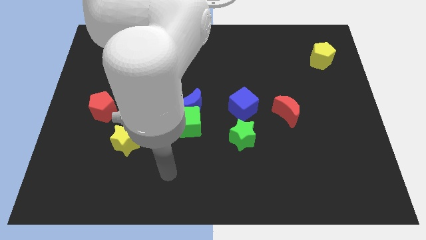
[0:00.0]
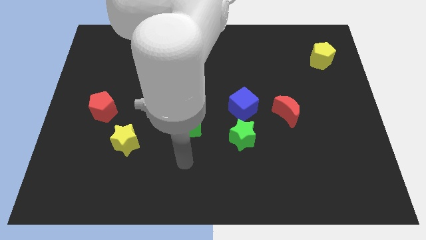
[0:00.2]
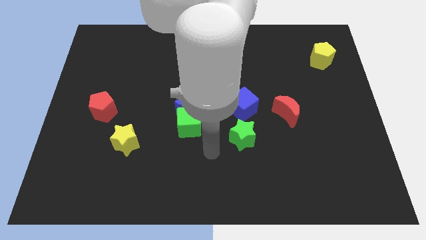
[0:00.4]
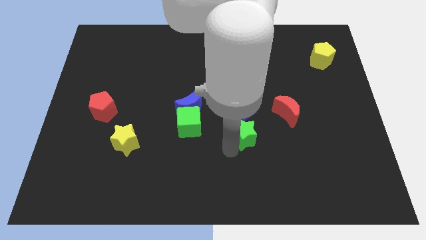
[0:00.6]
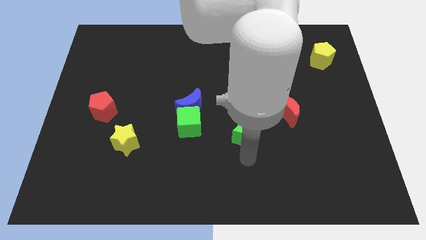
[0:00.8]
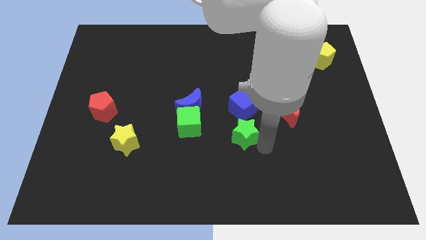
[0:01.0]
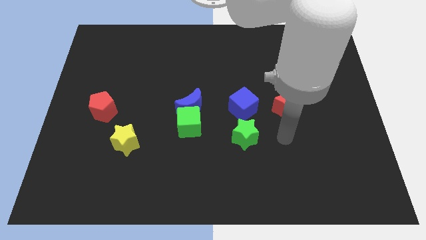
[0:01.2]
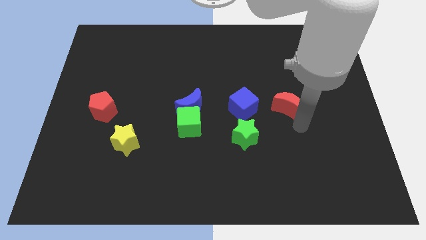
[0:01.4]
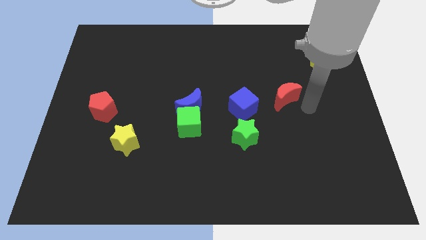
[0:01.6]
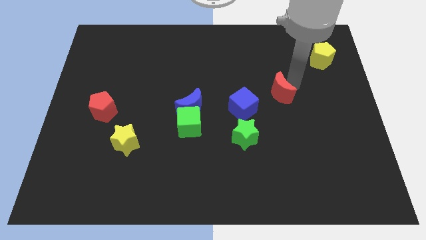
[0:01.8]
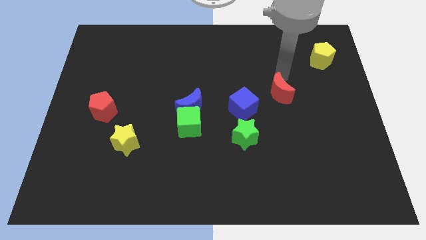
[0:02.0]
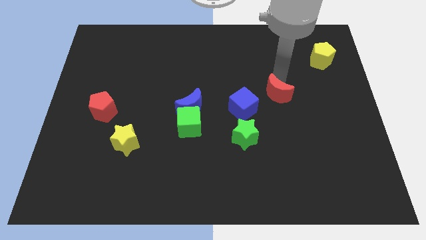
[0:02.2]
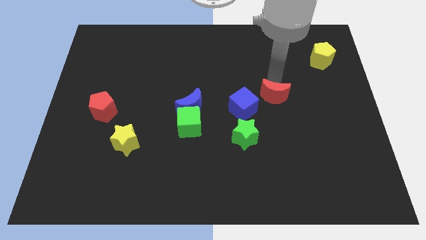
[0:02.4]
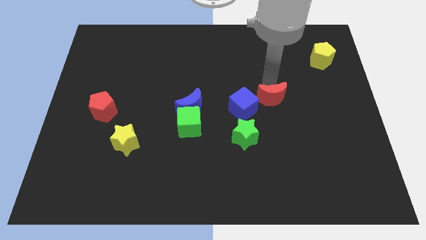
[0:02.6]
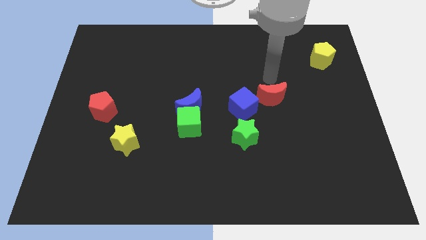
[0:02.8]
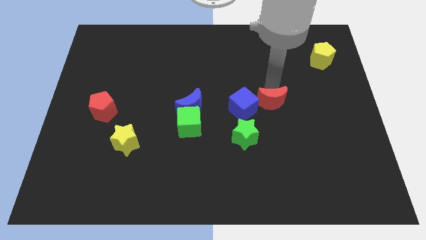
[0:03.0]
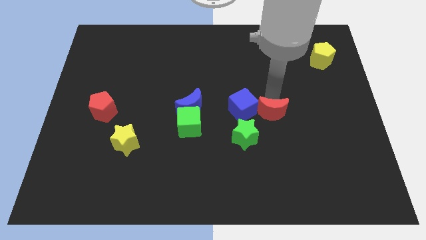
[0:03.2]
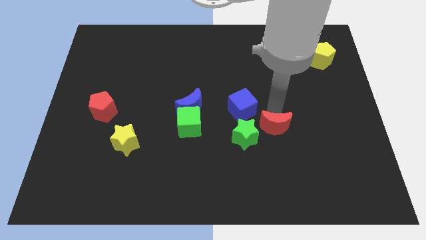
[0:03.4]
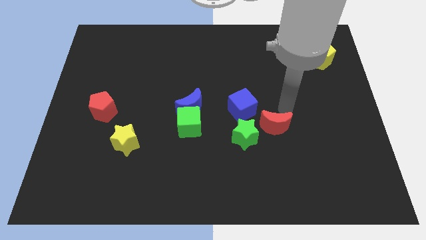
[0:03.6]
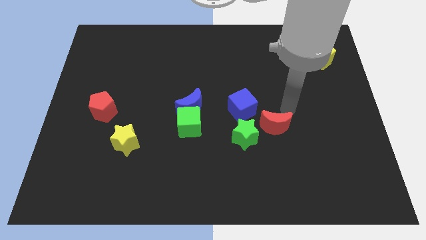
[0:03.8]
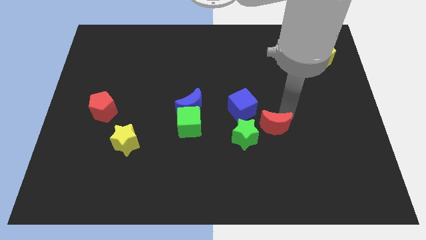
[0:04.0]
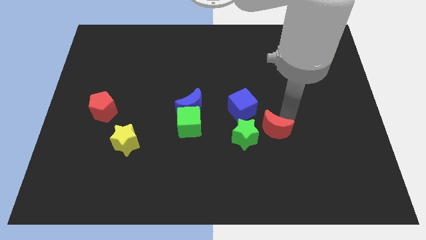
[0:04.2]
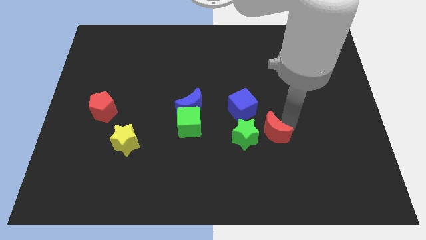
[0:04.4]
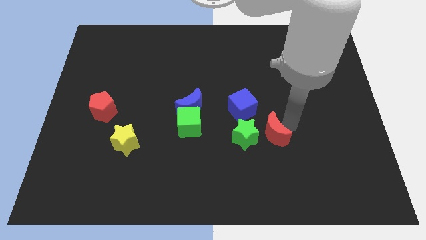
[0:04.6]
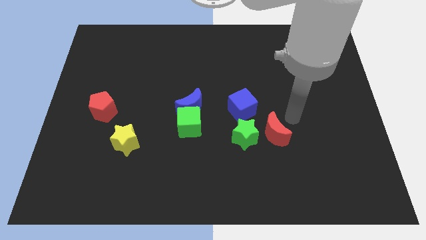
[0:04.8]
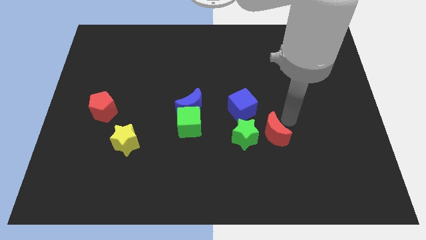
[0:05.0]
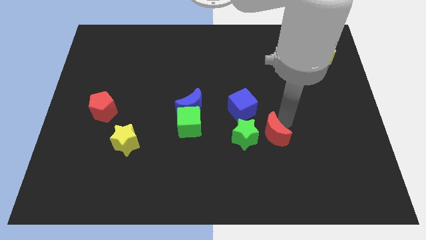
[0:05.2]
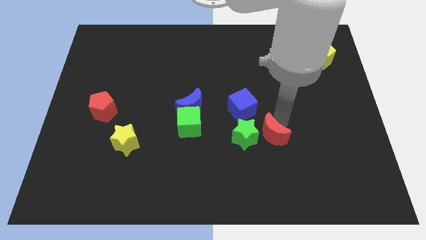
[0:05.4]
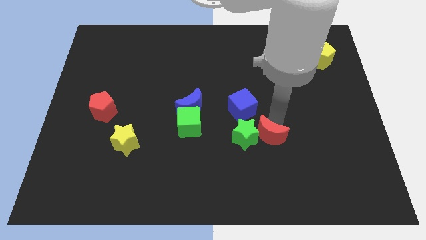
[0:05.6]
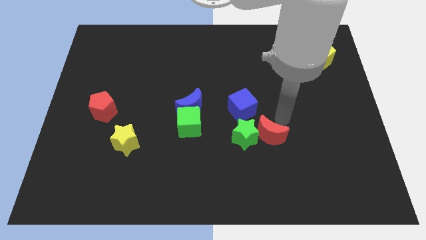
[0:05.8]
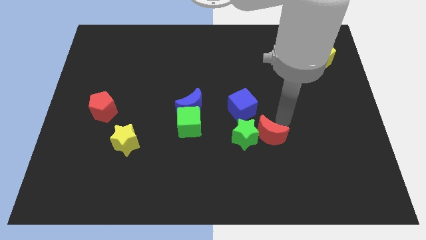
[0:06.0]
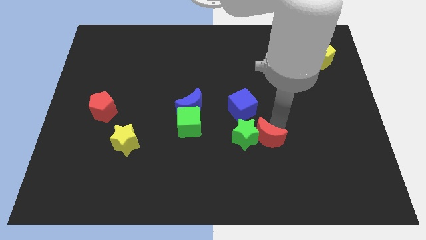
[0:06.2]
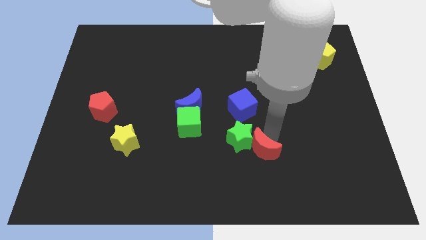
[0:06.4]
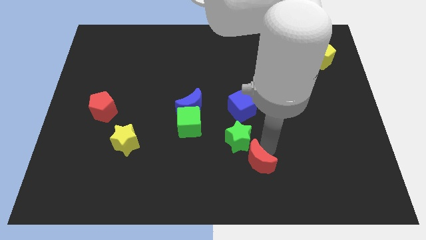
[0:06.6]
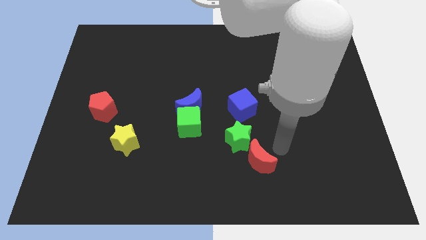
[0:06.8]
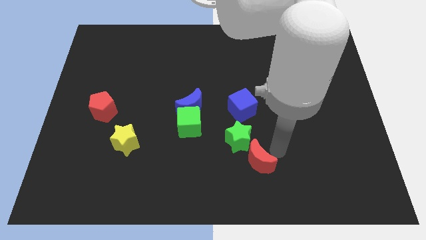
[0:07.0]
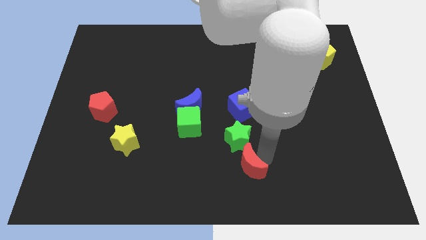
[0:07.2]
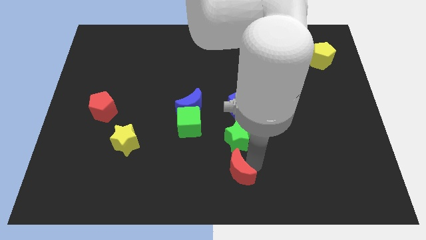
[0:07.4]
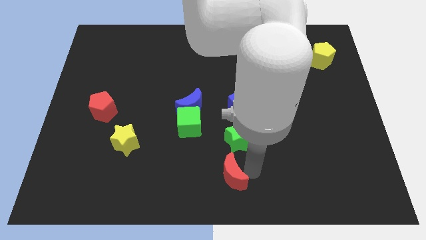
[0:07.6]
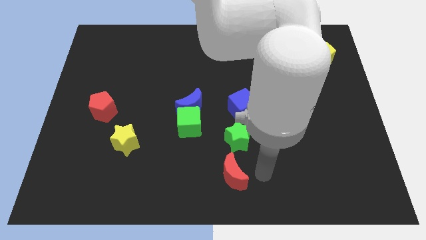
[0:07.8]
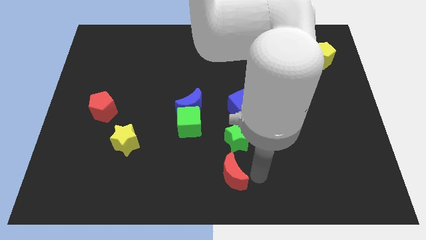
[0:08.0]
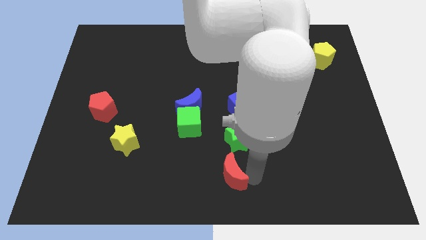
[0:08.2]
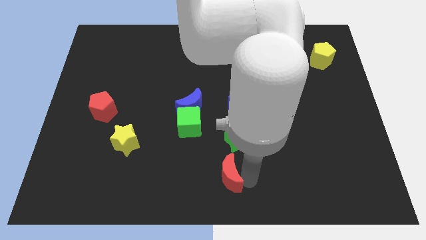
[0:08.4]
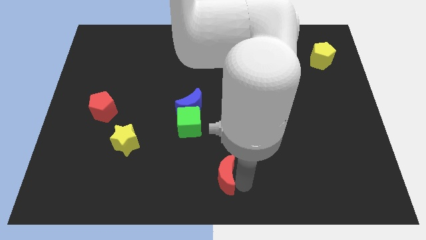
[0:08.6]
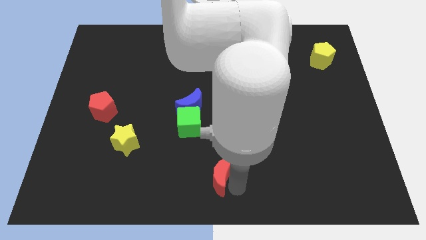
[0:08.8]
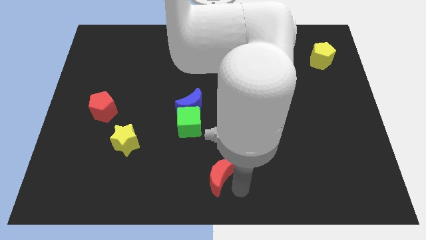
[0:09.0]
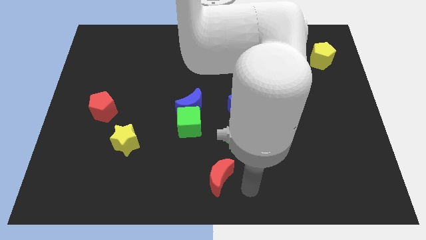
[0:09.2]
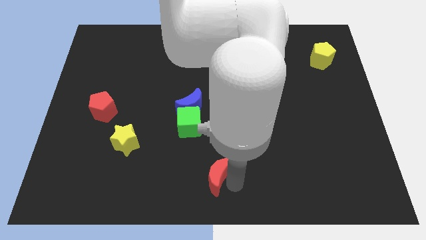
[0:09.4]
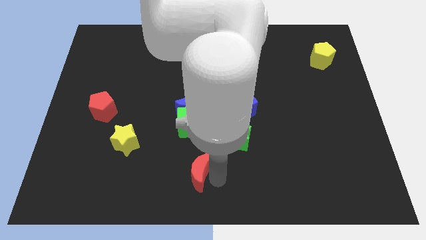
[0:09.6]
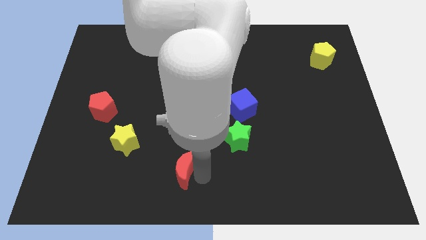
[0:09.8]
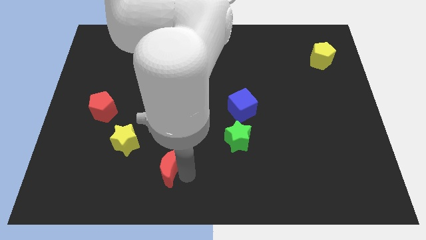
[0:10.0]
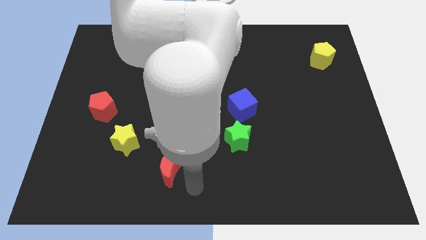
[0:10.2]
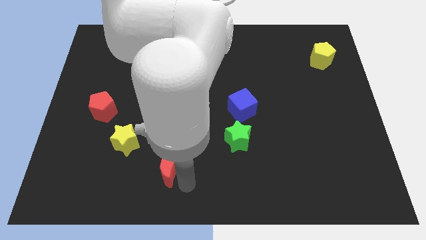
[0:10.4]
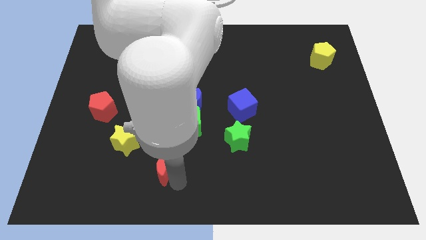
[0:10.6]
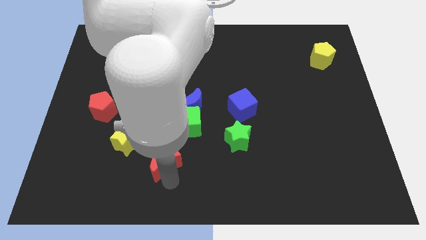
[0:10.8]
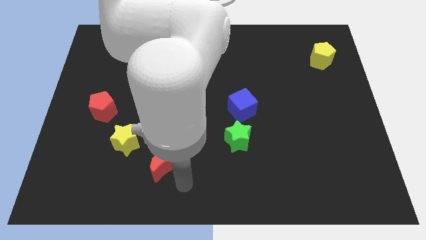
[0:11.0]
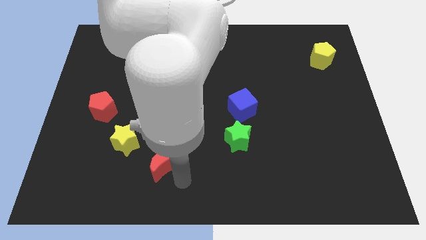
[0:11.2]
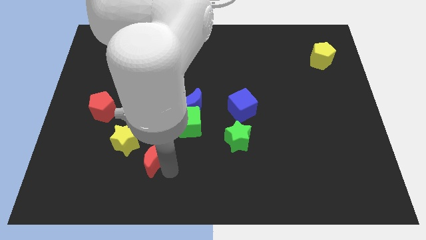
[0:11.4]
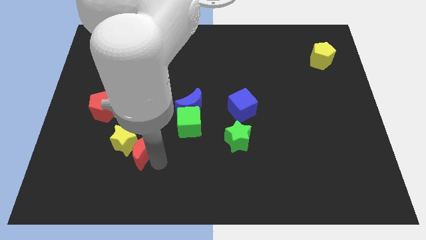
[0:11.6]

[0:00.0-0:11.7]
move the red moon close to the yellow star

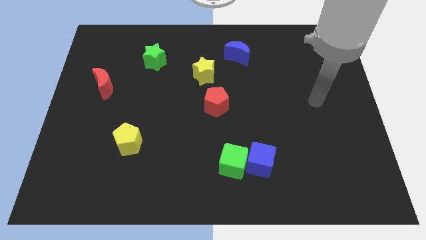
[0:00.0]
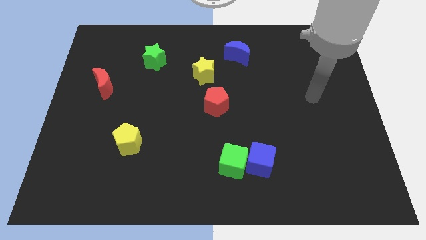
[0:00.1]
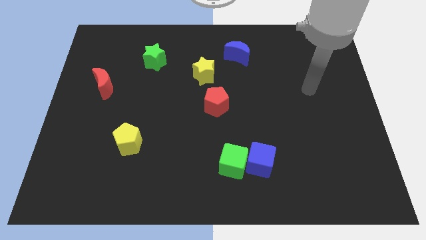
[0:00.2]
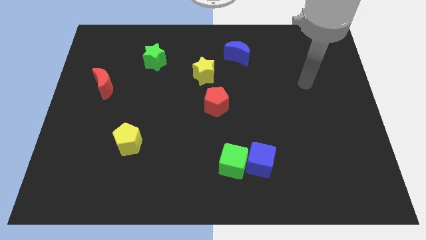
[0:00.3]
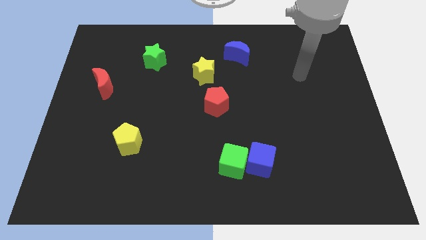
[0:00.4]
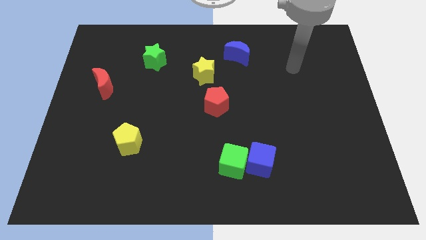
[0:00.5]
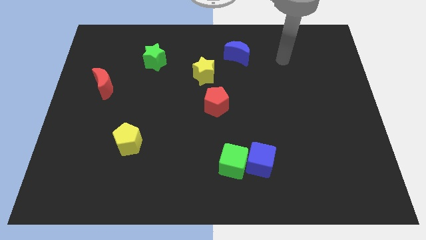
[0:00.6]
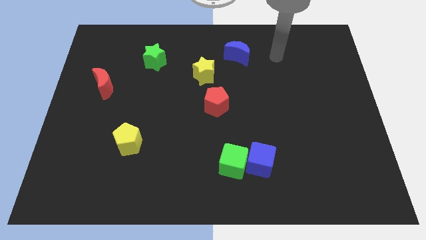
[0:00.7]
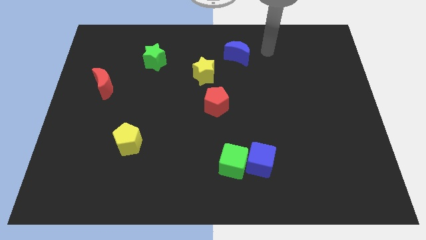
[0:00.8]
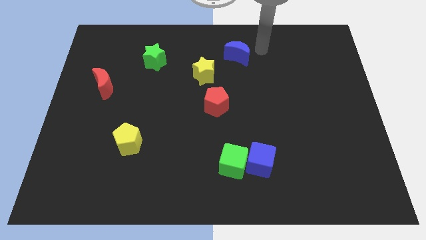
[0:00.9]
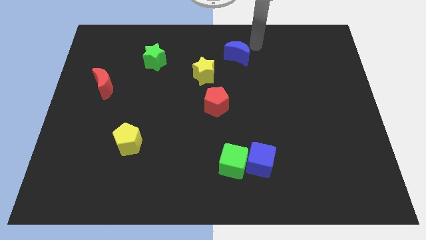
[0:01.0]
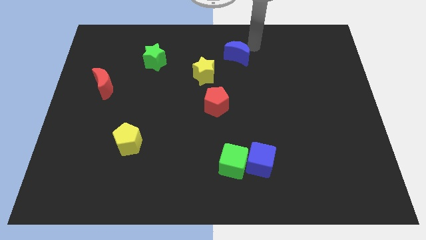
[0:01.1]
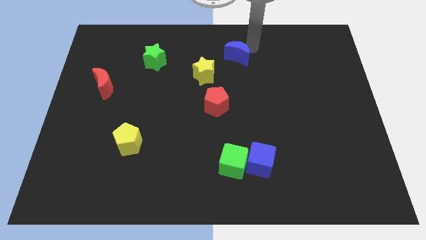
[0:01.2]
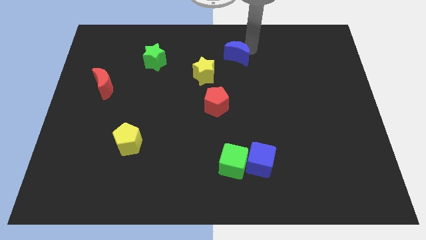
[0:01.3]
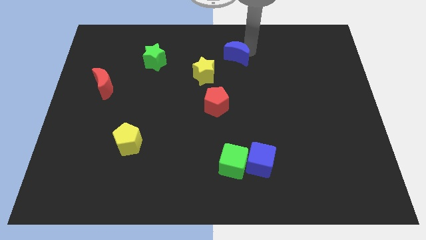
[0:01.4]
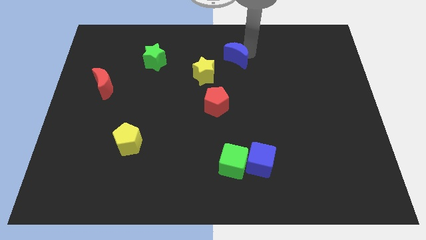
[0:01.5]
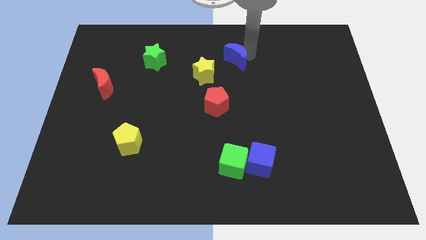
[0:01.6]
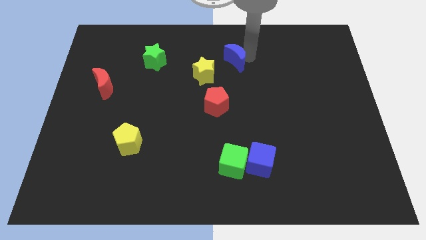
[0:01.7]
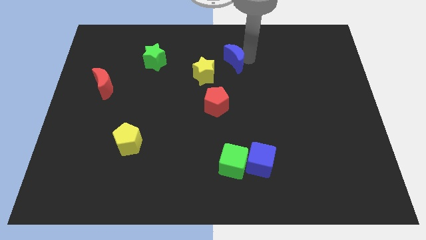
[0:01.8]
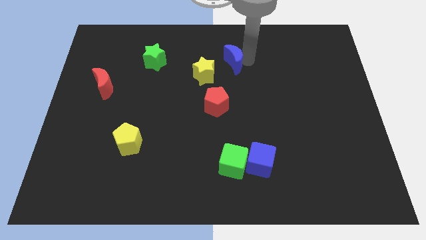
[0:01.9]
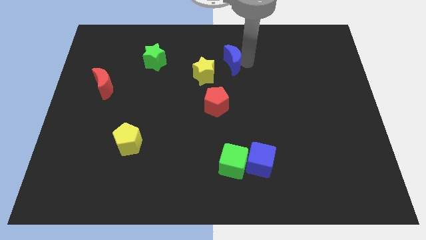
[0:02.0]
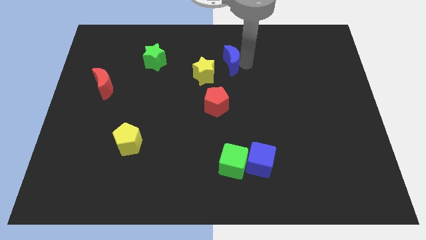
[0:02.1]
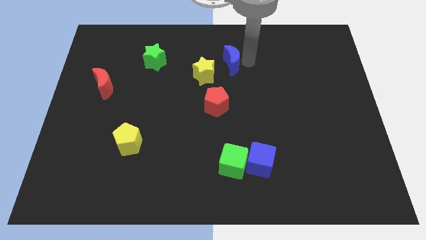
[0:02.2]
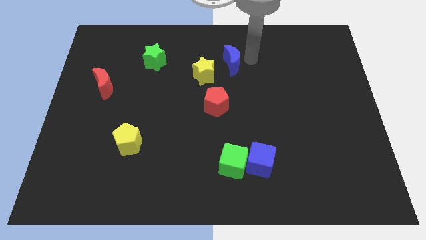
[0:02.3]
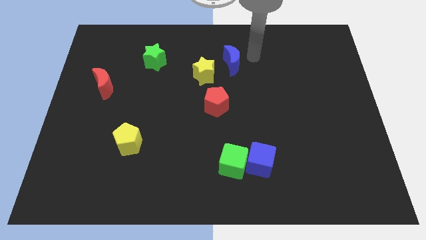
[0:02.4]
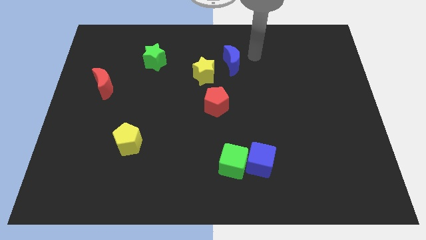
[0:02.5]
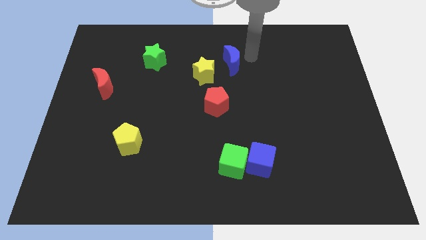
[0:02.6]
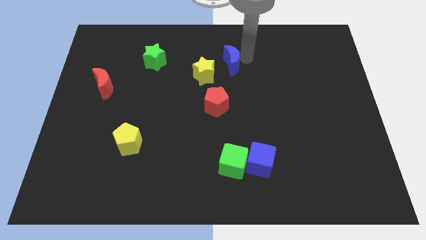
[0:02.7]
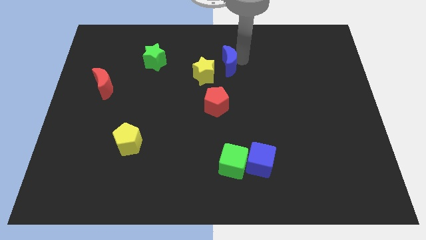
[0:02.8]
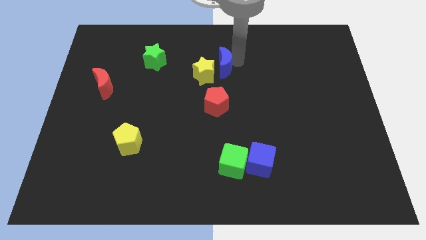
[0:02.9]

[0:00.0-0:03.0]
slide the blue moon to the yellow star
